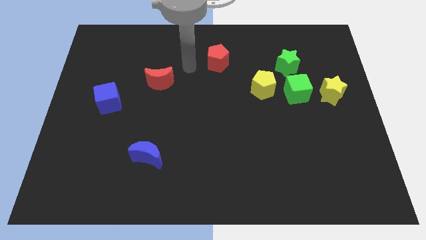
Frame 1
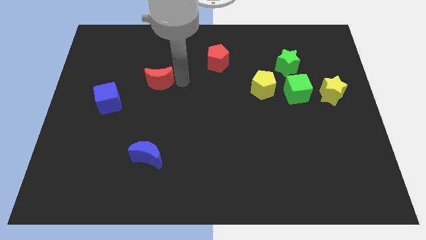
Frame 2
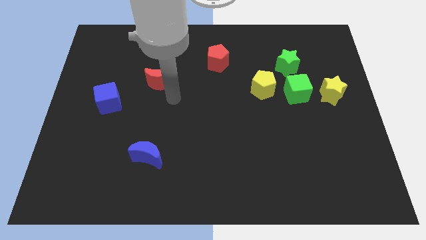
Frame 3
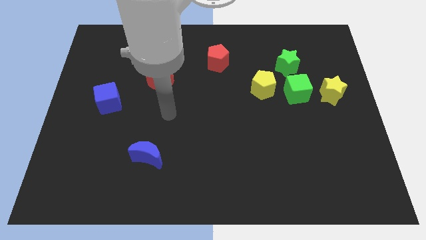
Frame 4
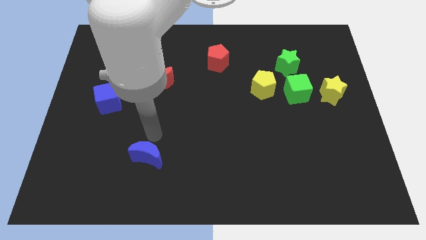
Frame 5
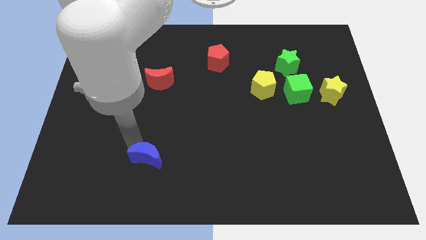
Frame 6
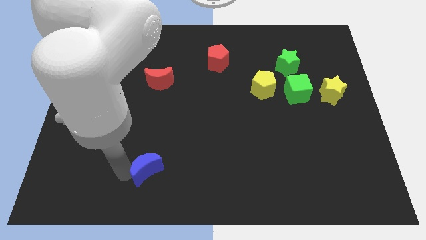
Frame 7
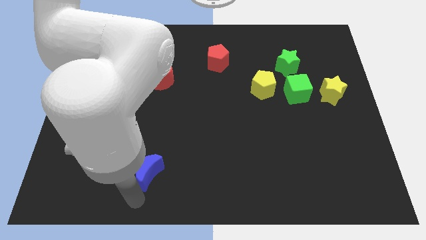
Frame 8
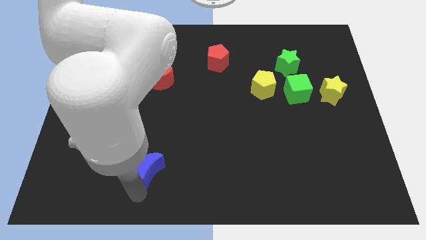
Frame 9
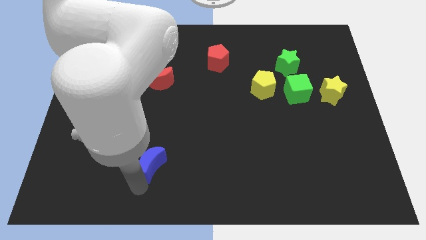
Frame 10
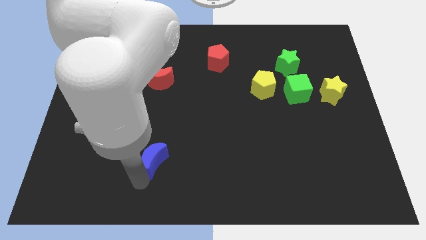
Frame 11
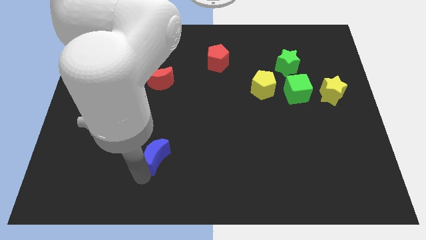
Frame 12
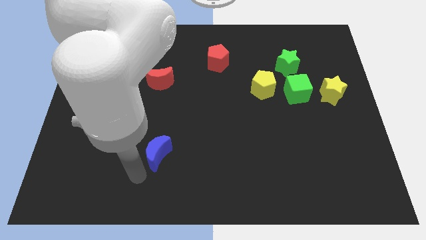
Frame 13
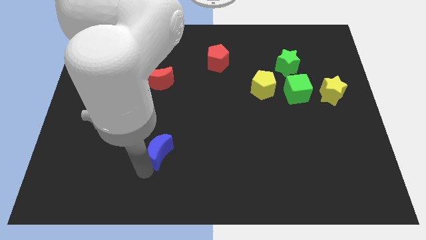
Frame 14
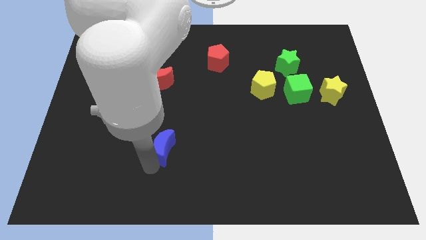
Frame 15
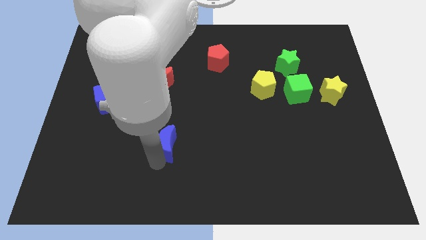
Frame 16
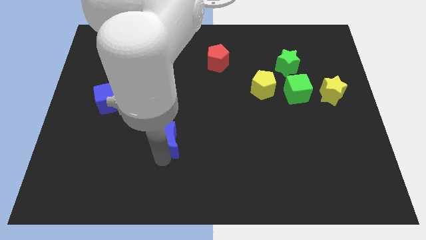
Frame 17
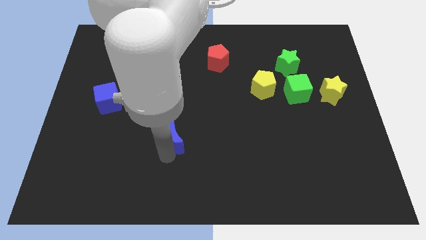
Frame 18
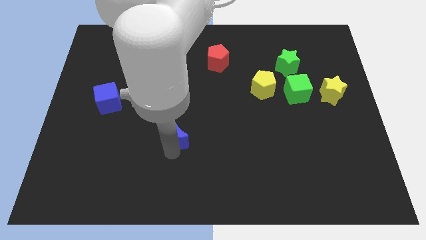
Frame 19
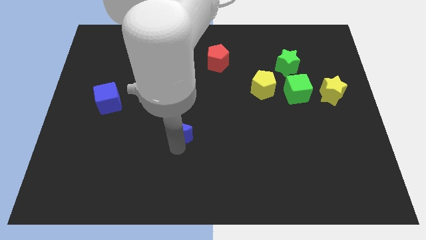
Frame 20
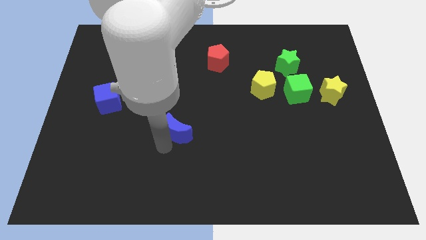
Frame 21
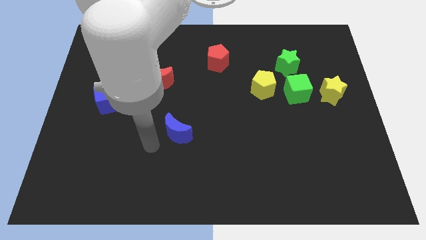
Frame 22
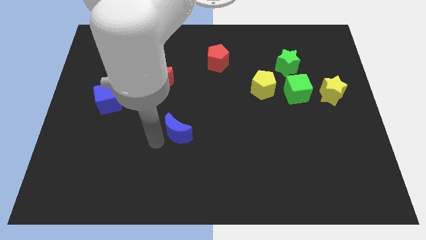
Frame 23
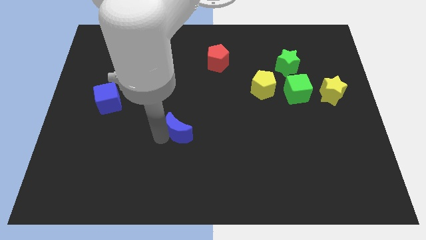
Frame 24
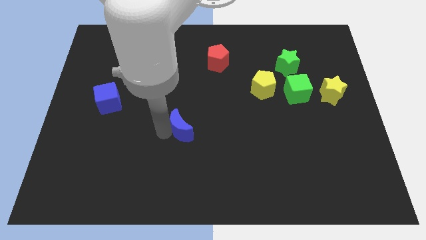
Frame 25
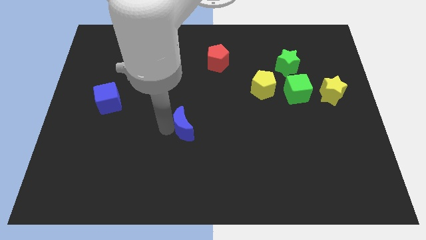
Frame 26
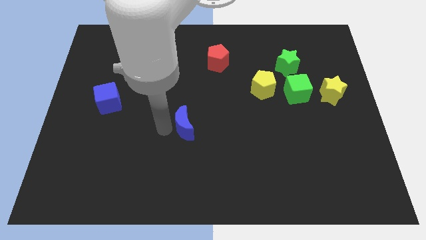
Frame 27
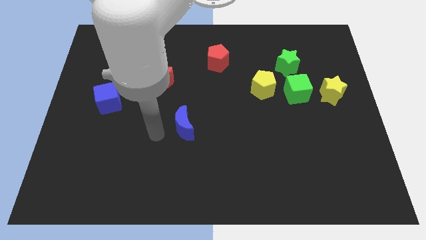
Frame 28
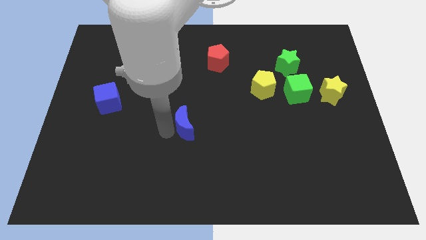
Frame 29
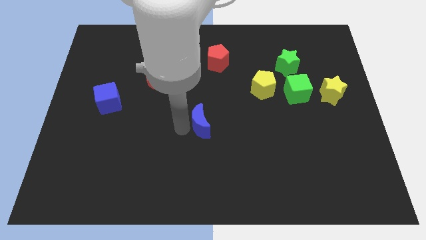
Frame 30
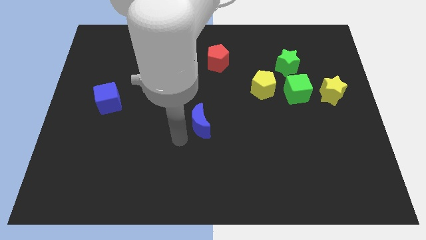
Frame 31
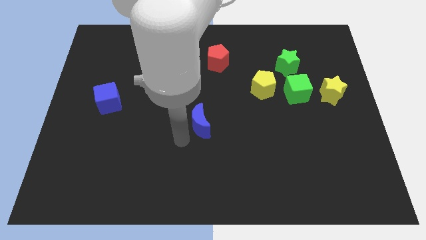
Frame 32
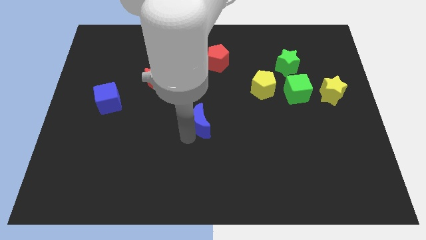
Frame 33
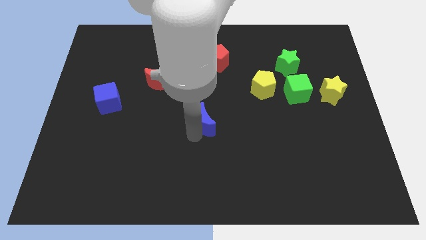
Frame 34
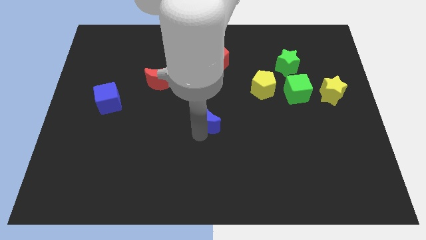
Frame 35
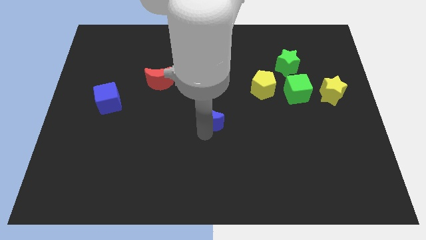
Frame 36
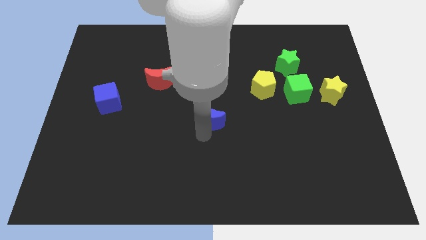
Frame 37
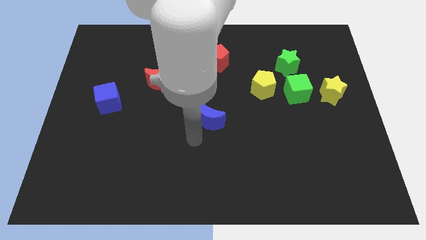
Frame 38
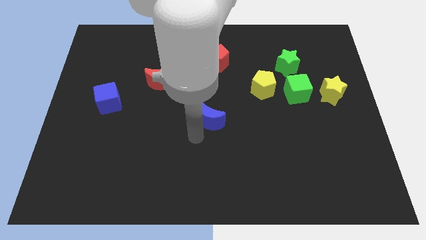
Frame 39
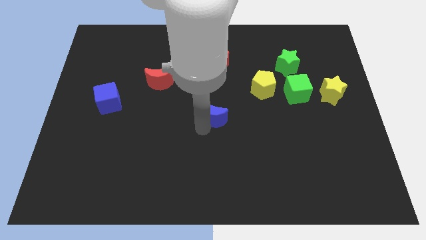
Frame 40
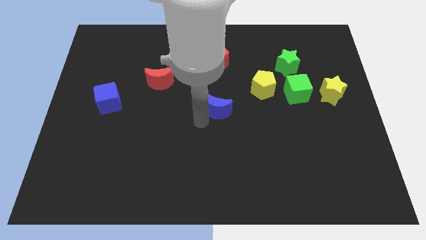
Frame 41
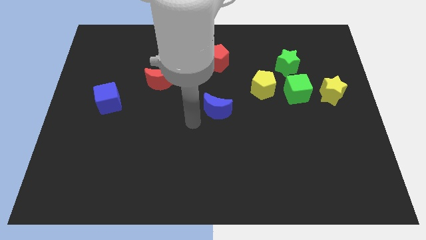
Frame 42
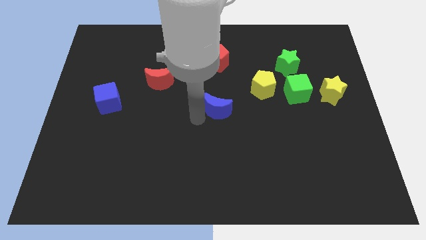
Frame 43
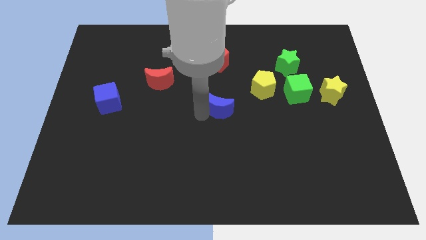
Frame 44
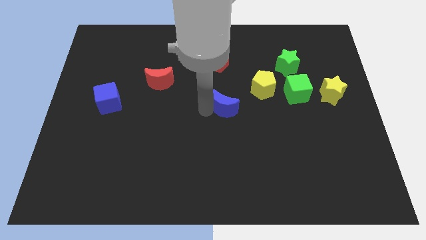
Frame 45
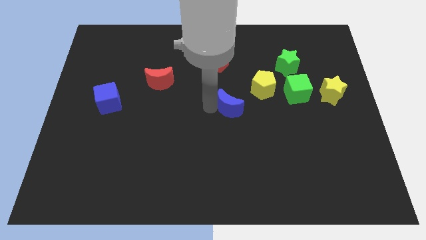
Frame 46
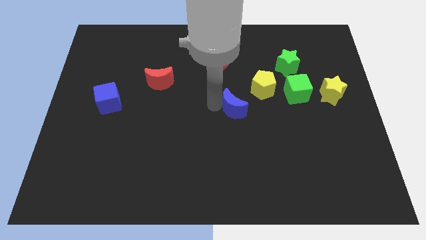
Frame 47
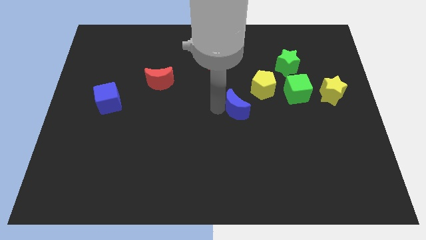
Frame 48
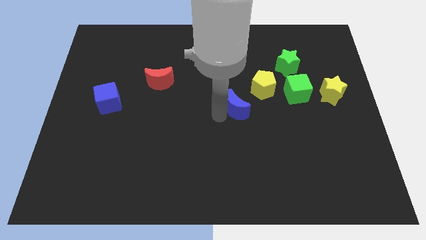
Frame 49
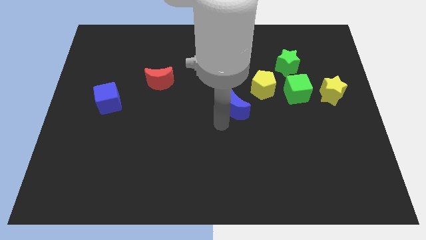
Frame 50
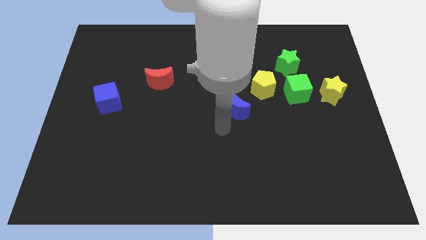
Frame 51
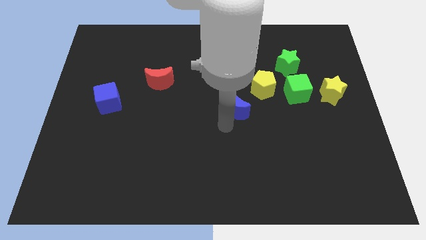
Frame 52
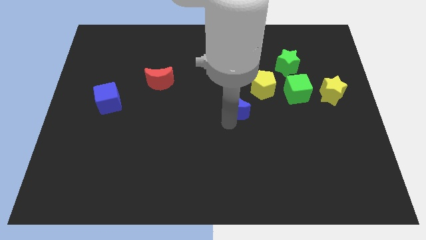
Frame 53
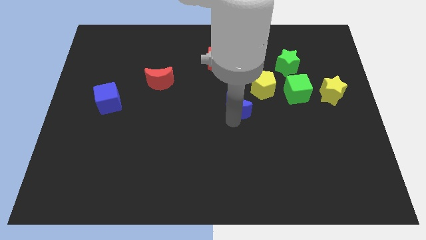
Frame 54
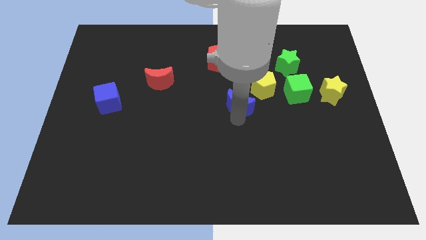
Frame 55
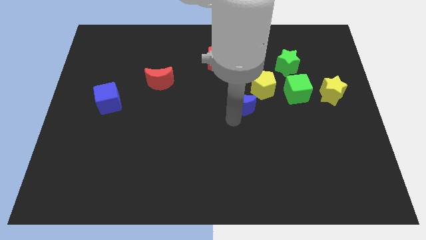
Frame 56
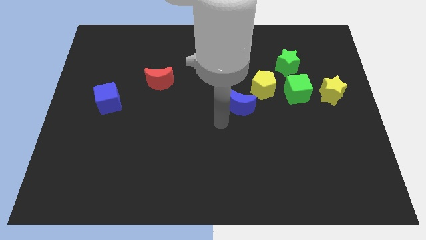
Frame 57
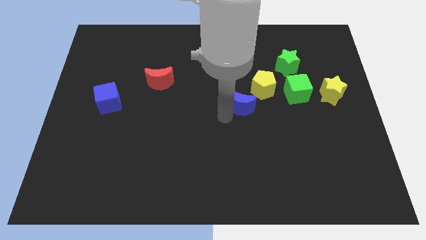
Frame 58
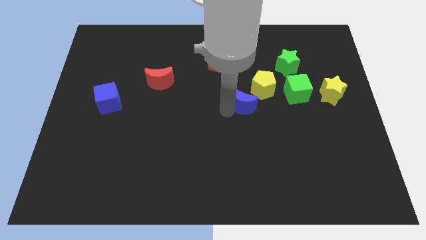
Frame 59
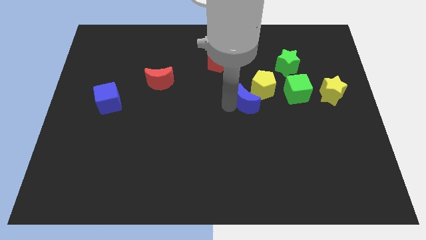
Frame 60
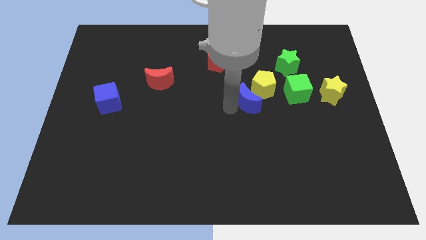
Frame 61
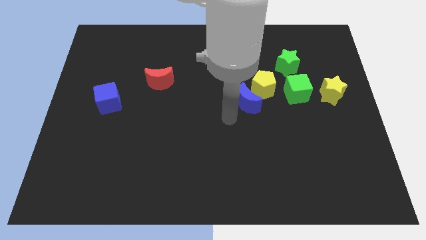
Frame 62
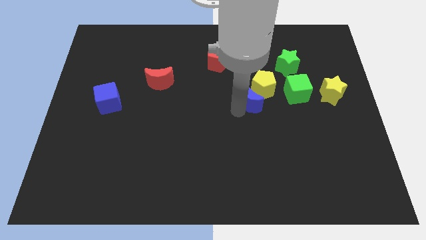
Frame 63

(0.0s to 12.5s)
push the blue moon towards the yellow pentagon
